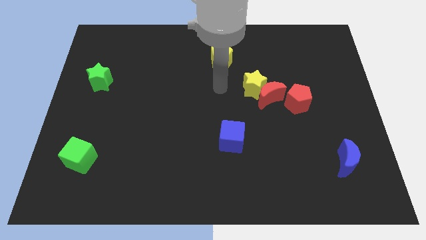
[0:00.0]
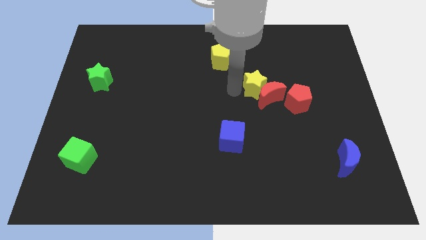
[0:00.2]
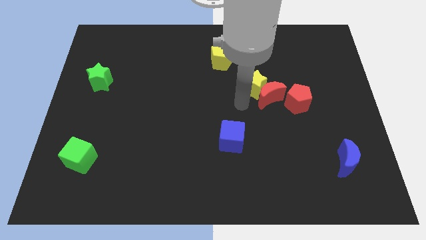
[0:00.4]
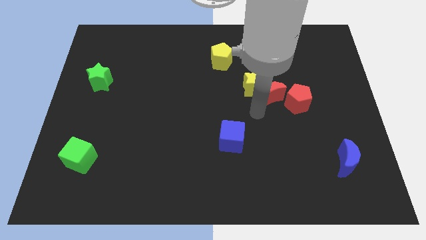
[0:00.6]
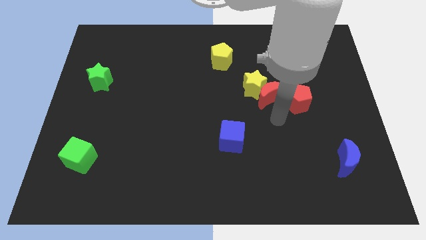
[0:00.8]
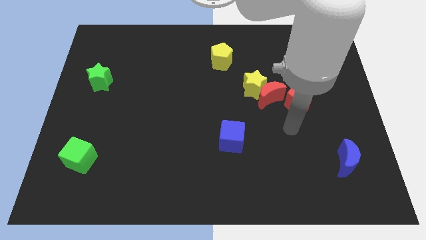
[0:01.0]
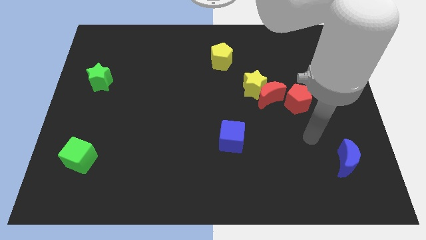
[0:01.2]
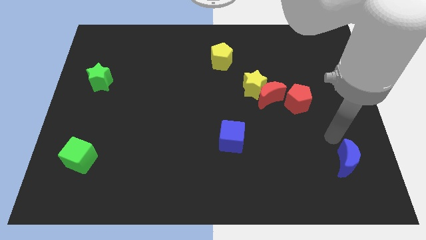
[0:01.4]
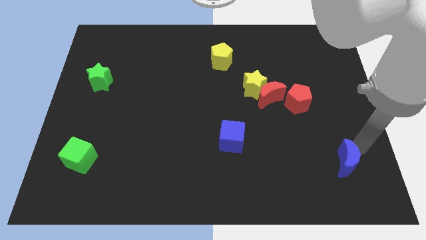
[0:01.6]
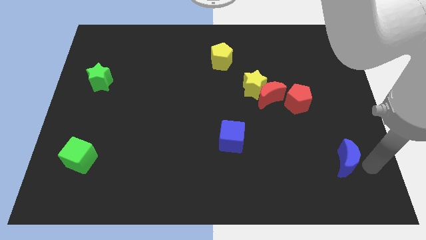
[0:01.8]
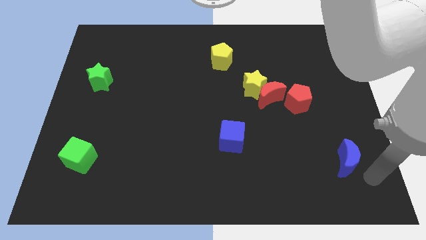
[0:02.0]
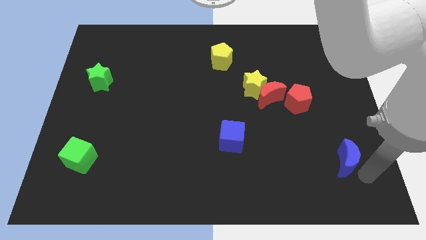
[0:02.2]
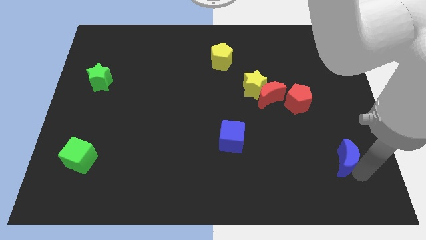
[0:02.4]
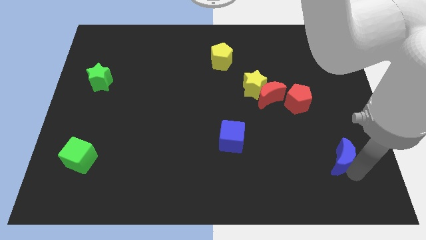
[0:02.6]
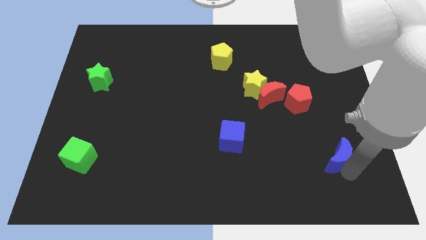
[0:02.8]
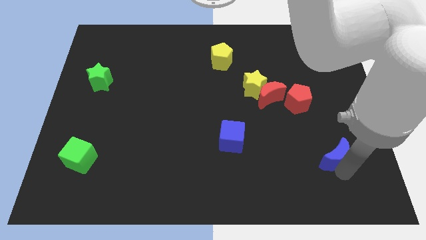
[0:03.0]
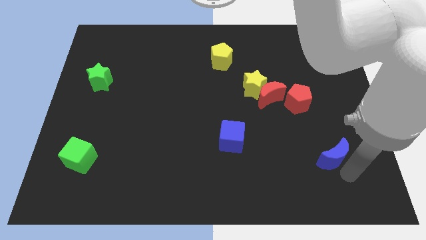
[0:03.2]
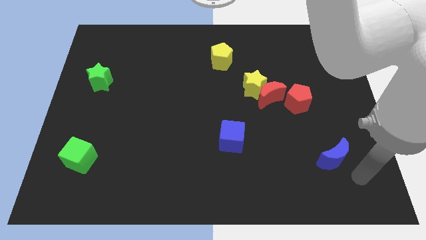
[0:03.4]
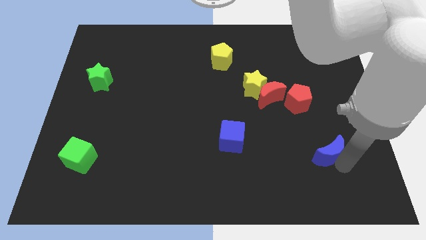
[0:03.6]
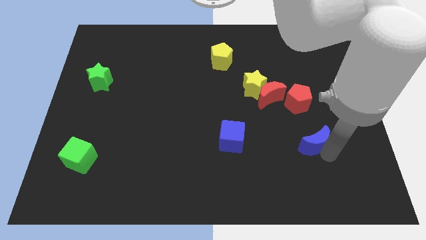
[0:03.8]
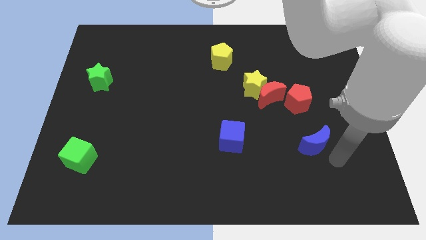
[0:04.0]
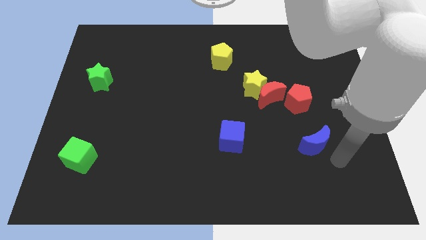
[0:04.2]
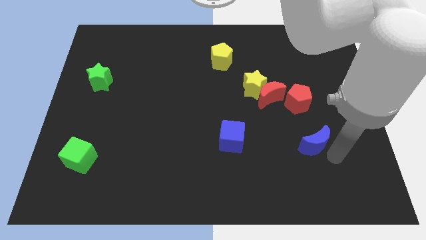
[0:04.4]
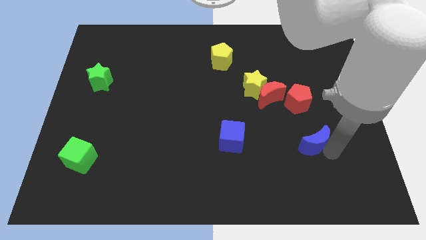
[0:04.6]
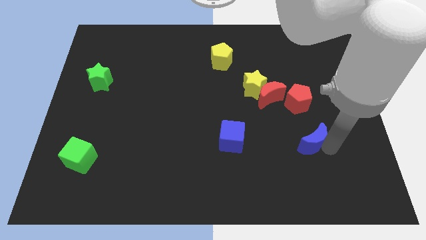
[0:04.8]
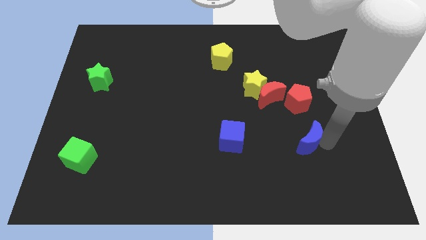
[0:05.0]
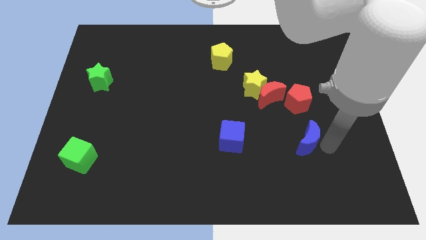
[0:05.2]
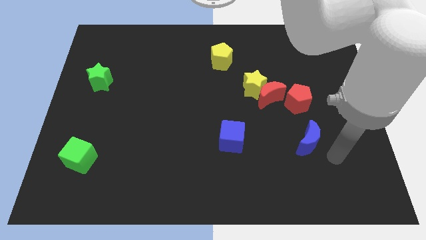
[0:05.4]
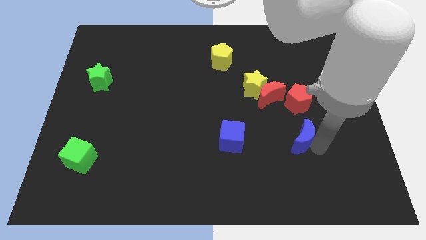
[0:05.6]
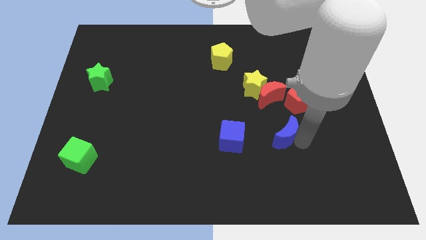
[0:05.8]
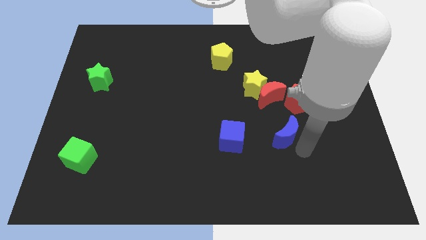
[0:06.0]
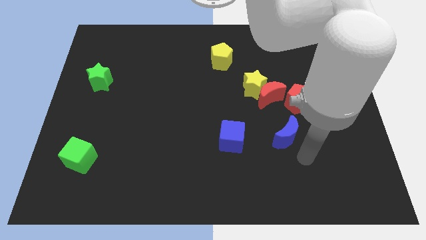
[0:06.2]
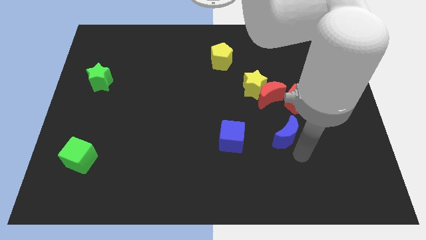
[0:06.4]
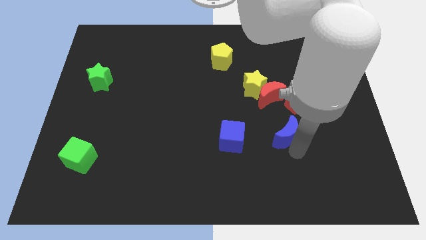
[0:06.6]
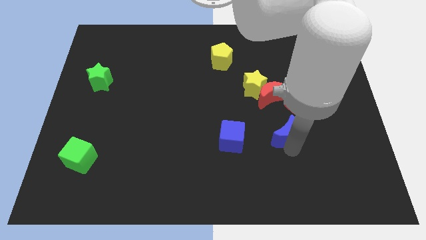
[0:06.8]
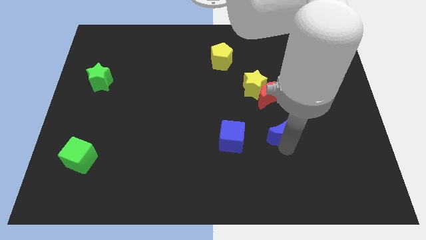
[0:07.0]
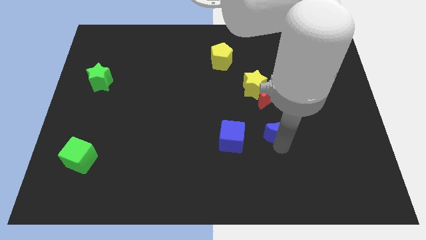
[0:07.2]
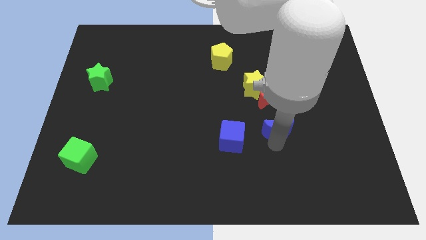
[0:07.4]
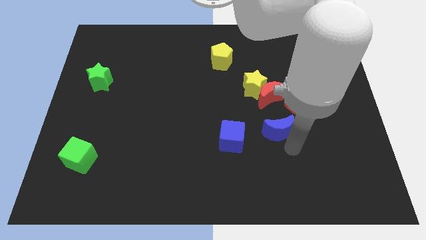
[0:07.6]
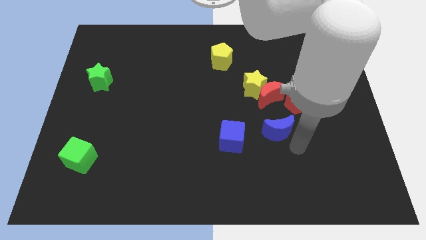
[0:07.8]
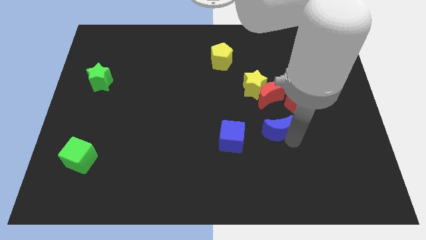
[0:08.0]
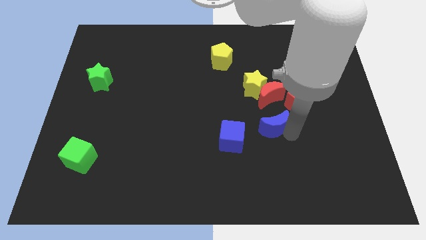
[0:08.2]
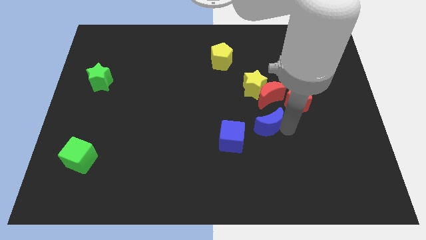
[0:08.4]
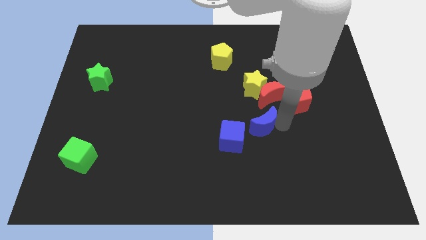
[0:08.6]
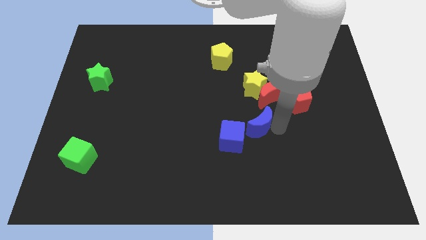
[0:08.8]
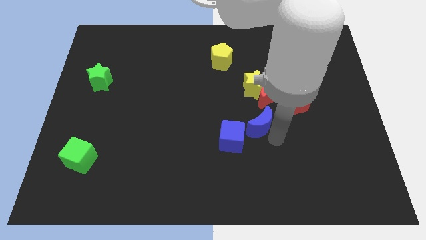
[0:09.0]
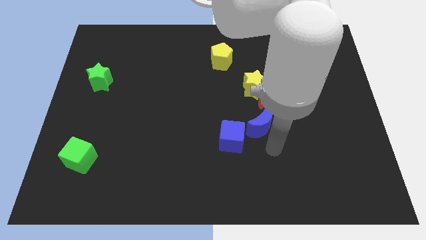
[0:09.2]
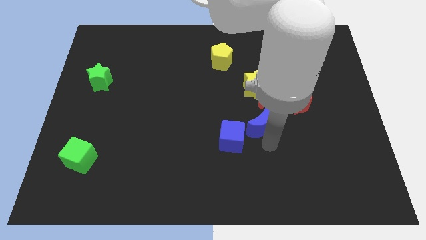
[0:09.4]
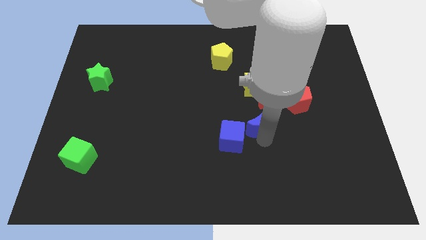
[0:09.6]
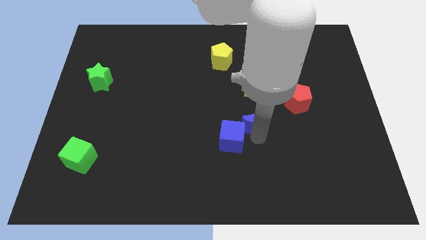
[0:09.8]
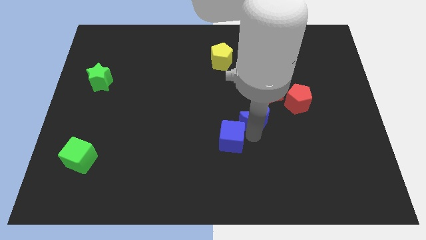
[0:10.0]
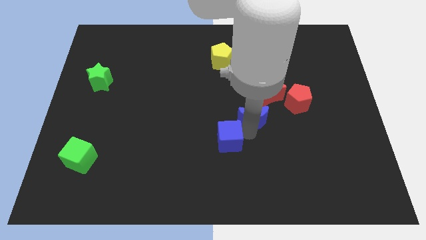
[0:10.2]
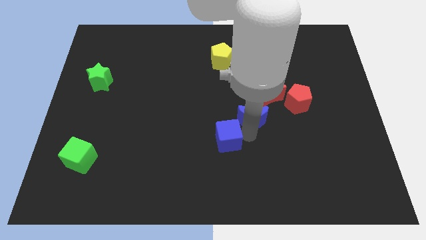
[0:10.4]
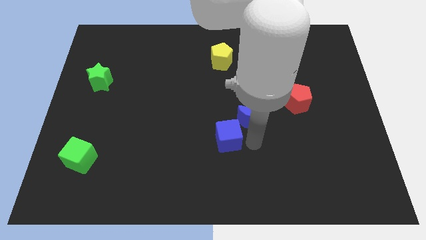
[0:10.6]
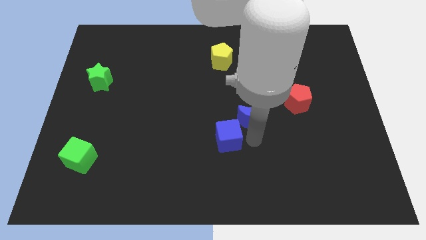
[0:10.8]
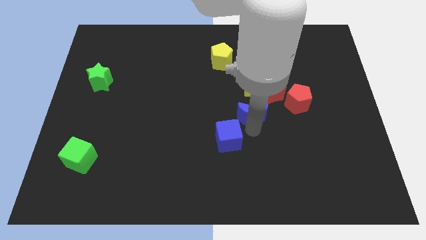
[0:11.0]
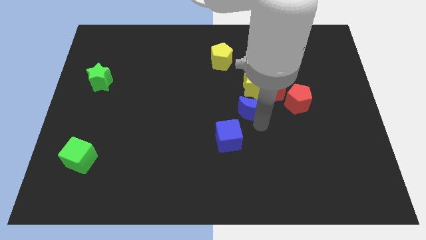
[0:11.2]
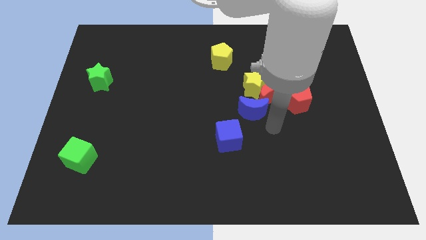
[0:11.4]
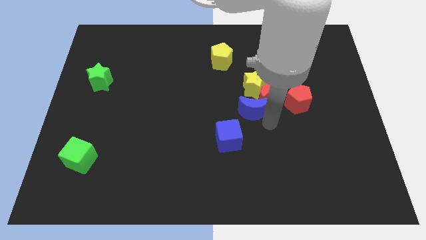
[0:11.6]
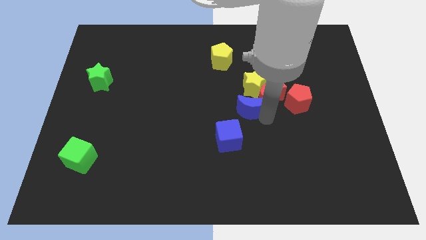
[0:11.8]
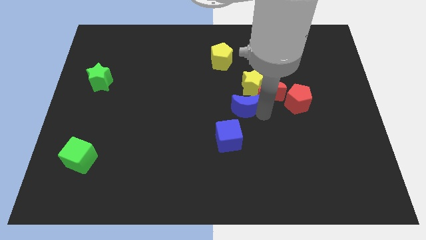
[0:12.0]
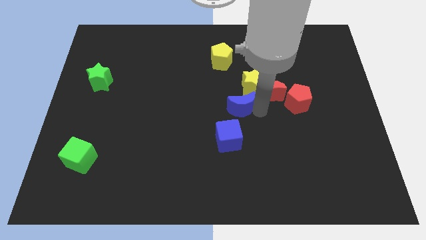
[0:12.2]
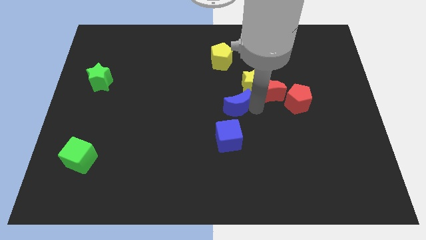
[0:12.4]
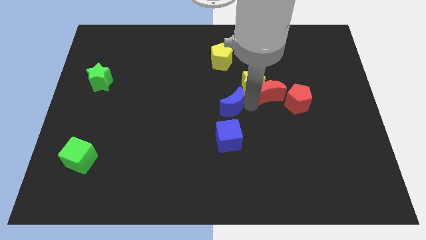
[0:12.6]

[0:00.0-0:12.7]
slide the blue moon below the yellow pentagon
